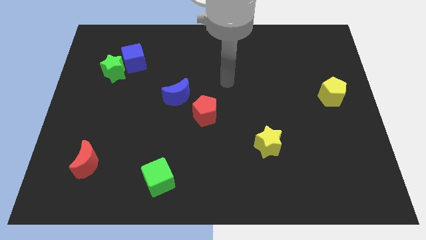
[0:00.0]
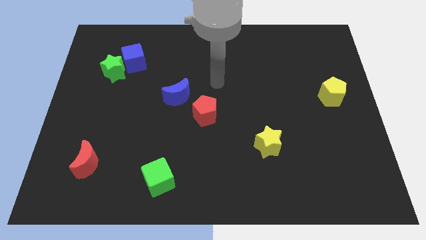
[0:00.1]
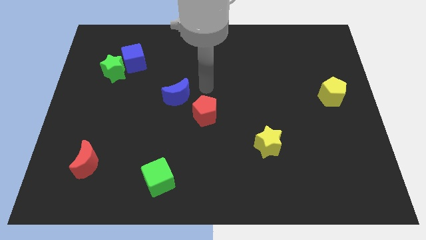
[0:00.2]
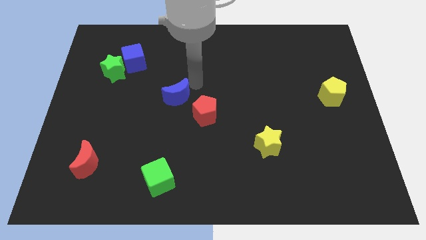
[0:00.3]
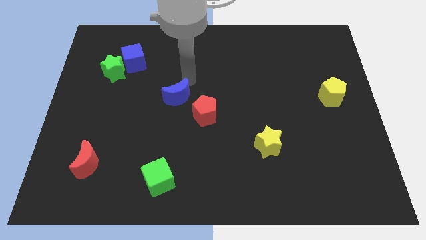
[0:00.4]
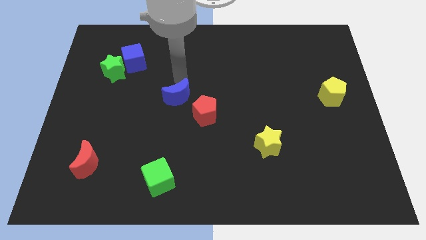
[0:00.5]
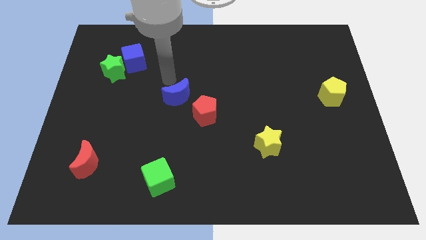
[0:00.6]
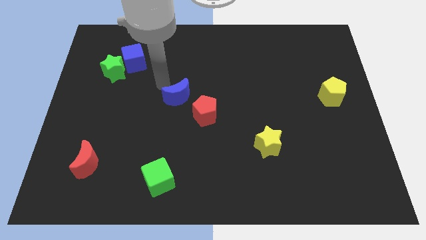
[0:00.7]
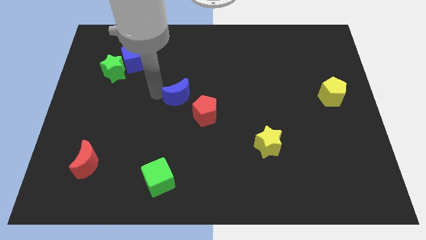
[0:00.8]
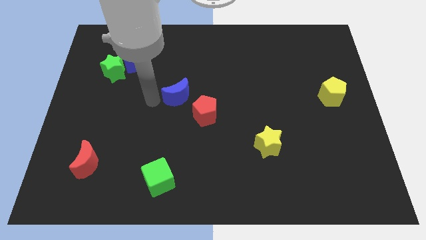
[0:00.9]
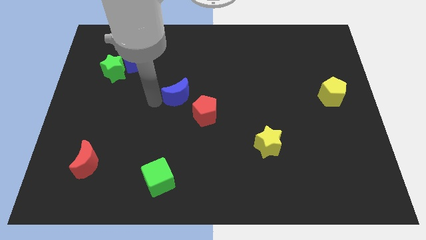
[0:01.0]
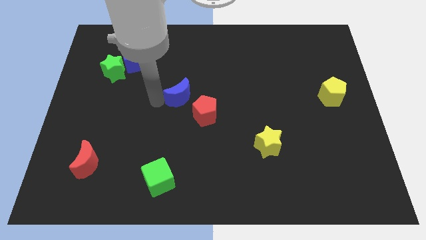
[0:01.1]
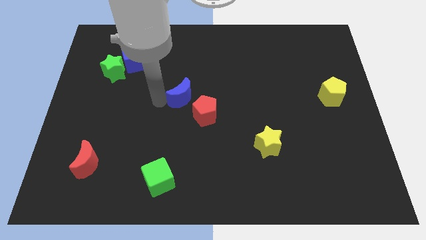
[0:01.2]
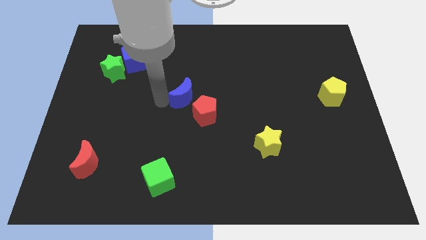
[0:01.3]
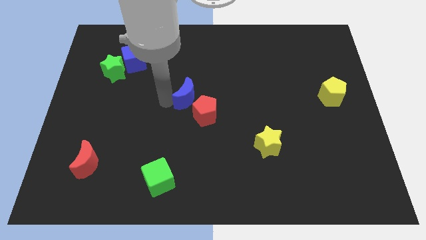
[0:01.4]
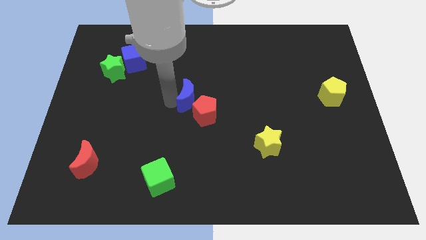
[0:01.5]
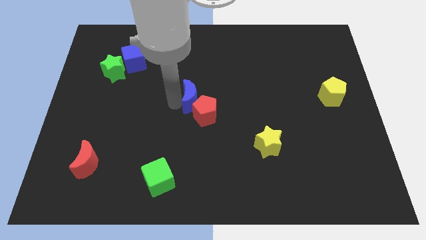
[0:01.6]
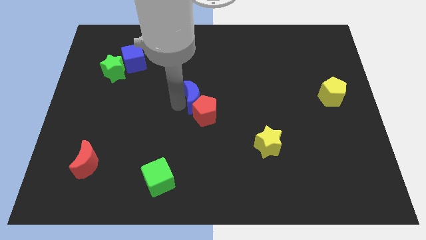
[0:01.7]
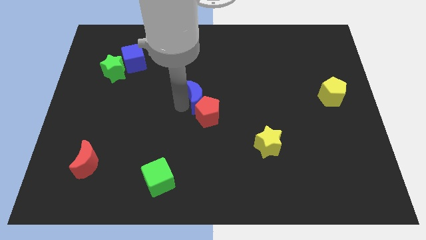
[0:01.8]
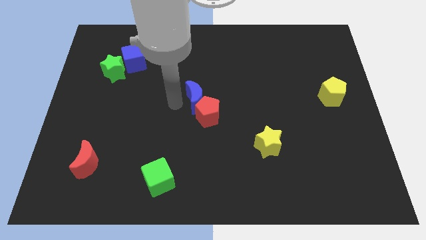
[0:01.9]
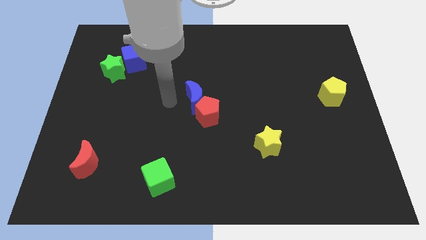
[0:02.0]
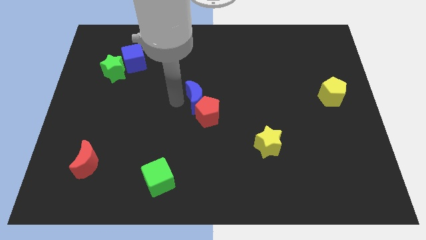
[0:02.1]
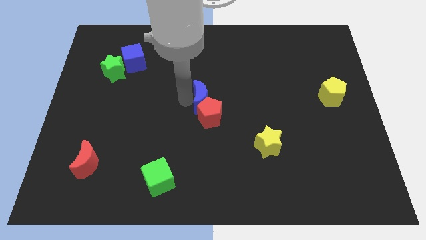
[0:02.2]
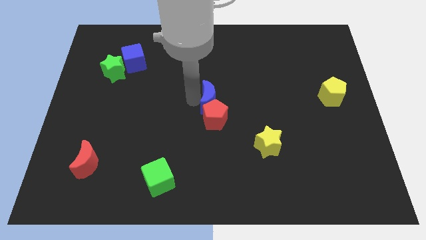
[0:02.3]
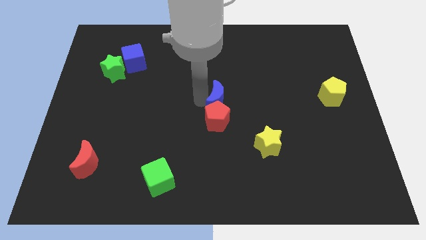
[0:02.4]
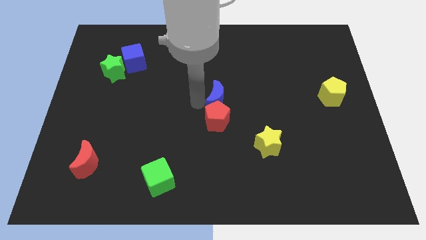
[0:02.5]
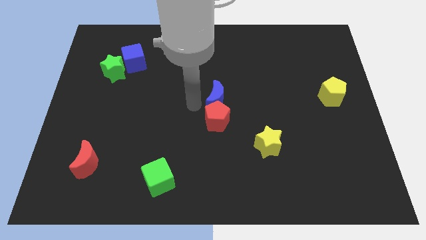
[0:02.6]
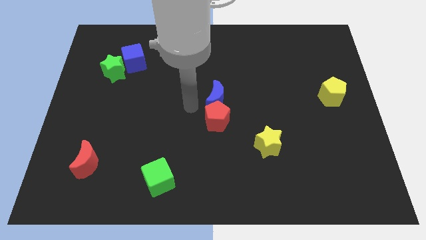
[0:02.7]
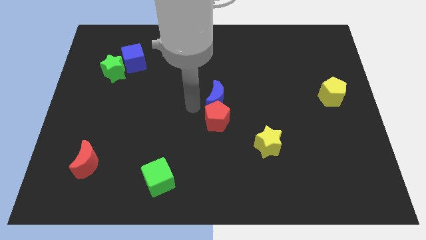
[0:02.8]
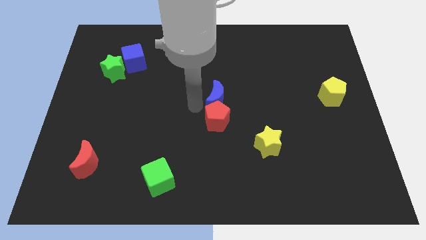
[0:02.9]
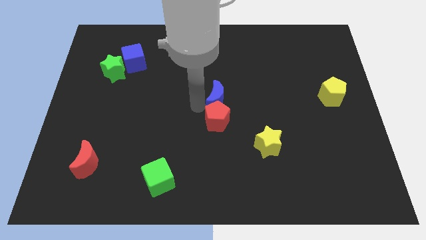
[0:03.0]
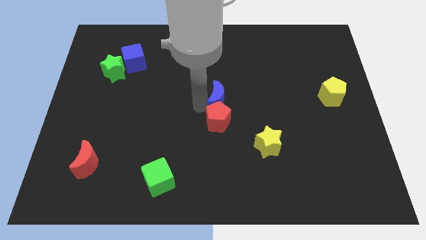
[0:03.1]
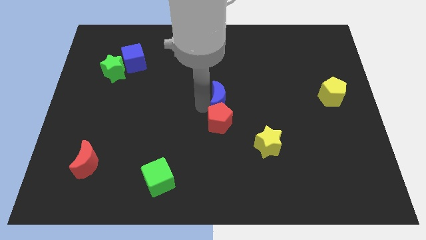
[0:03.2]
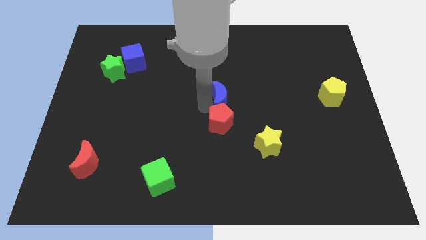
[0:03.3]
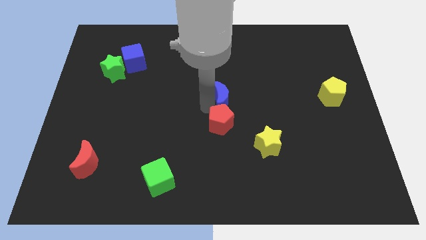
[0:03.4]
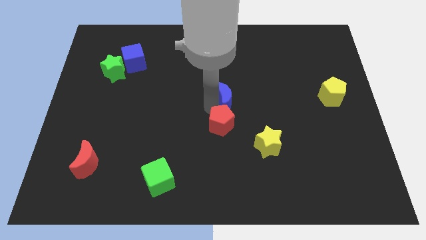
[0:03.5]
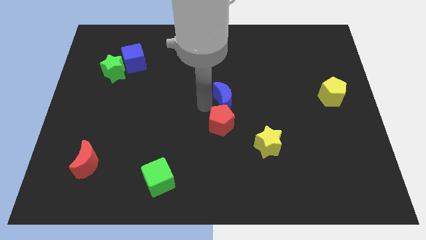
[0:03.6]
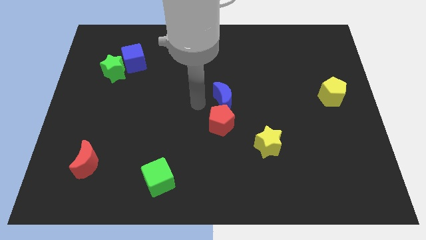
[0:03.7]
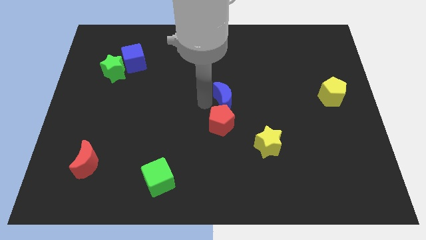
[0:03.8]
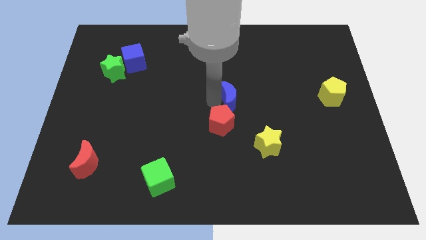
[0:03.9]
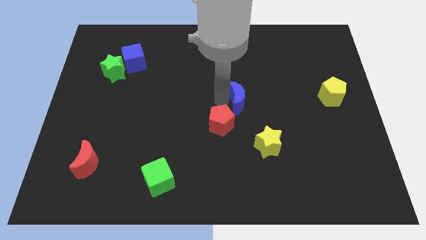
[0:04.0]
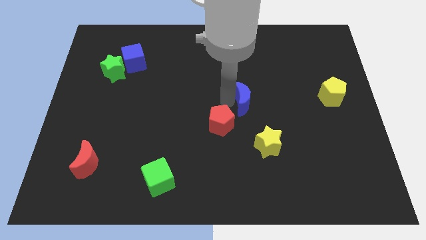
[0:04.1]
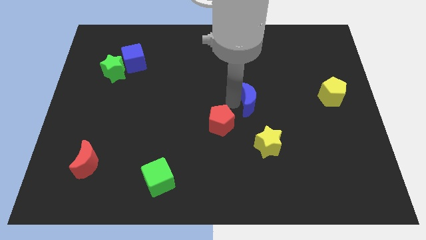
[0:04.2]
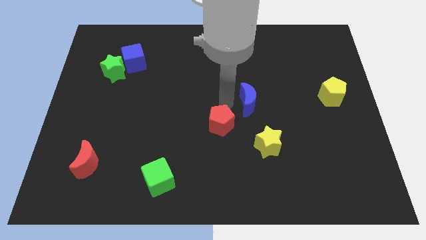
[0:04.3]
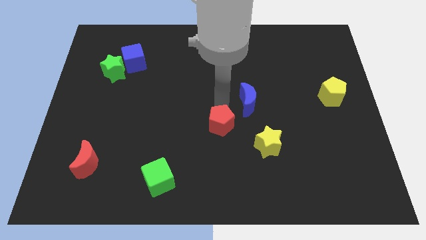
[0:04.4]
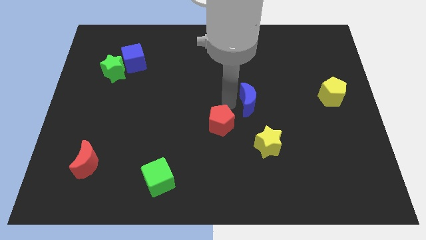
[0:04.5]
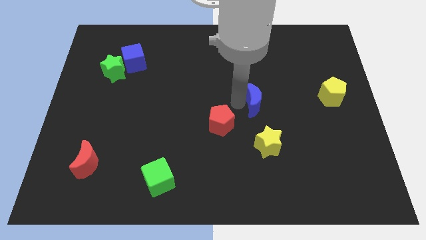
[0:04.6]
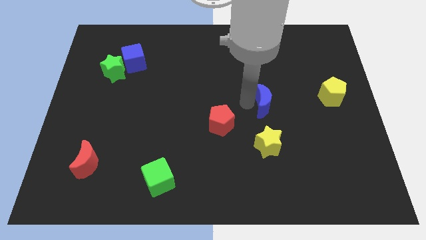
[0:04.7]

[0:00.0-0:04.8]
push the blue moon to the right

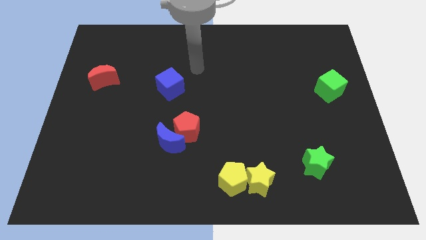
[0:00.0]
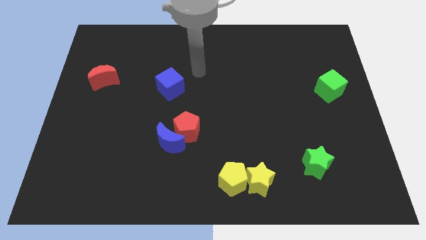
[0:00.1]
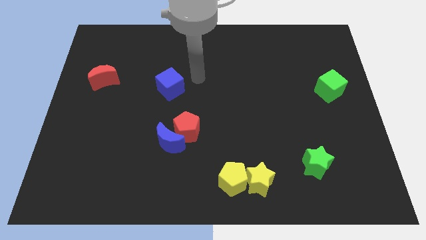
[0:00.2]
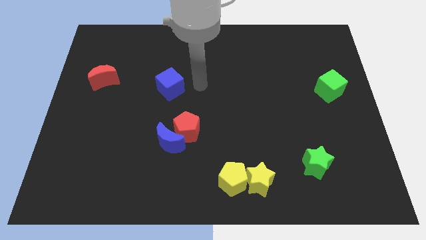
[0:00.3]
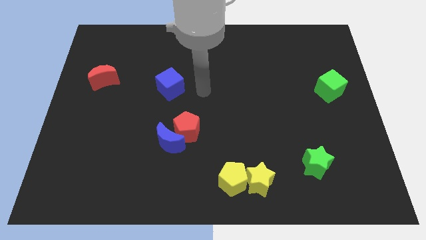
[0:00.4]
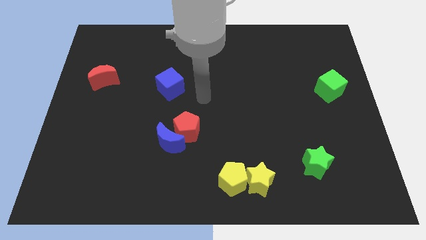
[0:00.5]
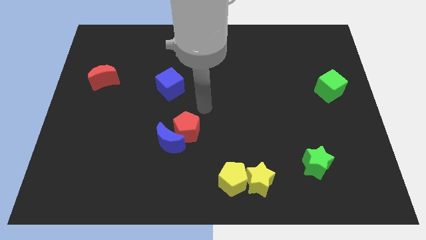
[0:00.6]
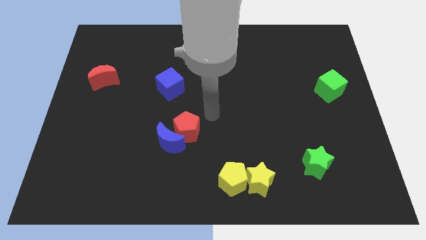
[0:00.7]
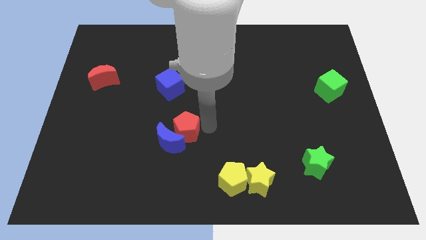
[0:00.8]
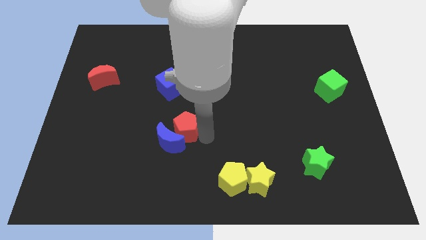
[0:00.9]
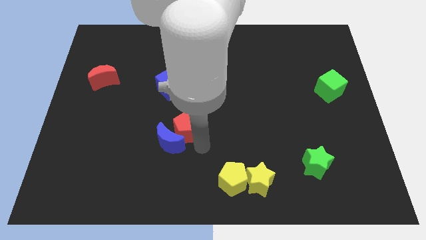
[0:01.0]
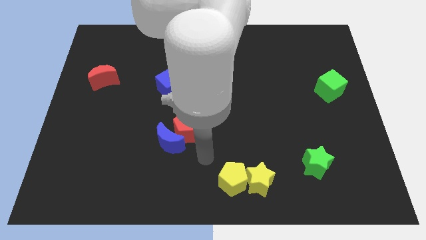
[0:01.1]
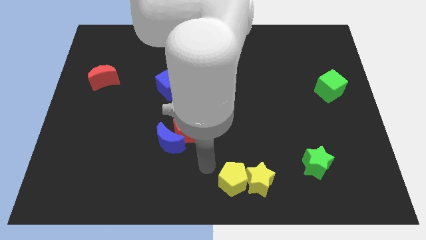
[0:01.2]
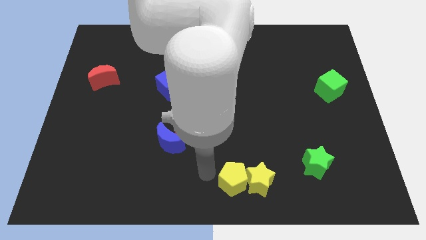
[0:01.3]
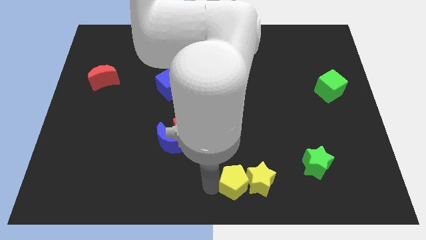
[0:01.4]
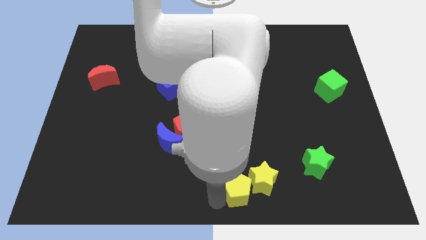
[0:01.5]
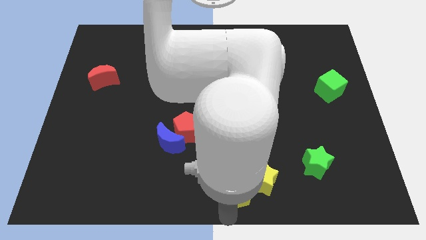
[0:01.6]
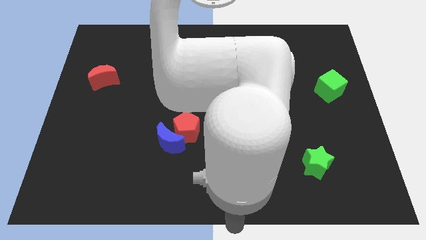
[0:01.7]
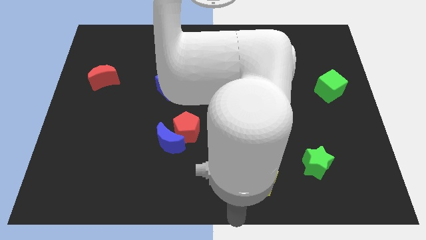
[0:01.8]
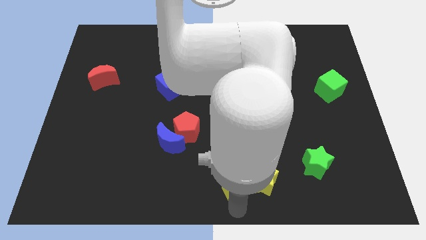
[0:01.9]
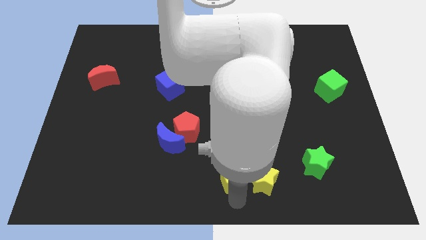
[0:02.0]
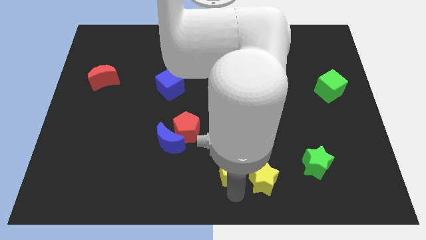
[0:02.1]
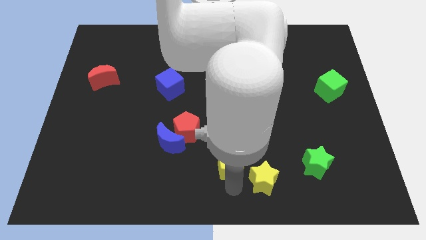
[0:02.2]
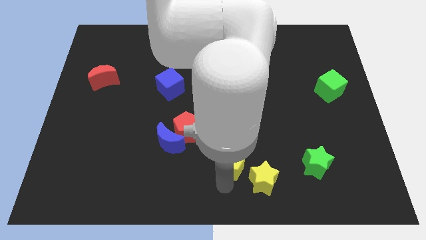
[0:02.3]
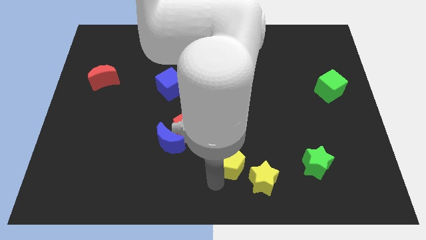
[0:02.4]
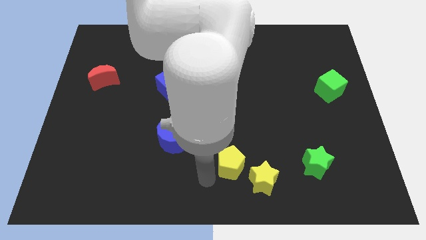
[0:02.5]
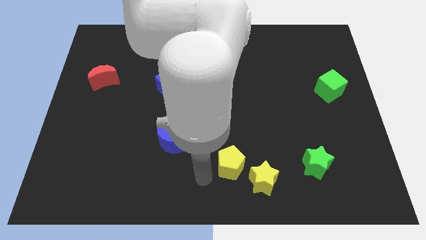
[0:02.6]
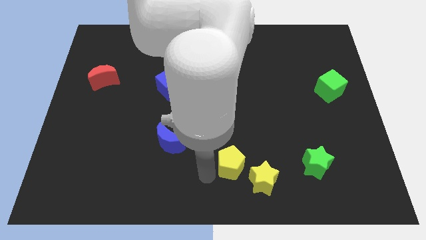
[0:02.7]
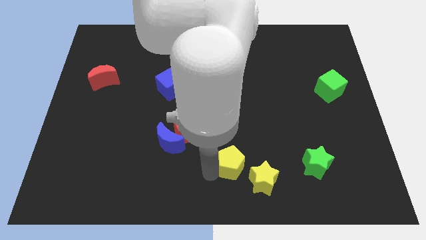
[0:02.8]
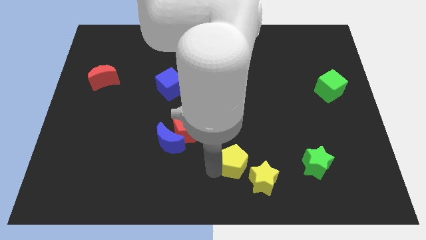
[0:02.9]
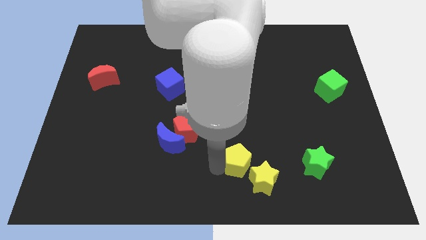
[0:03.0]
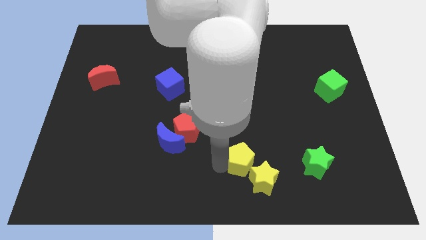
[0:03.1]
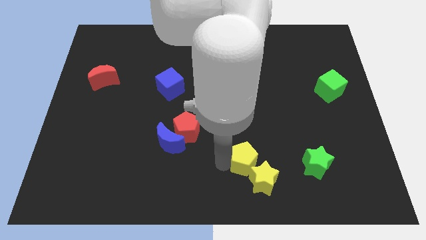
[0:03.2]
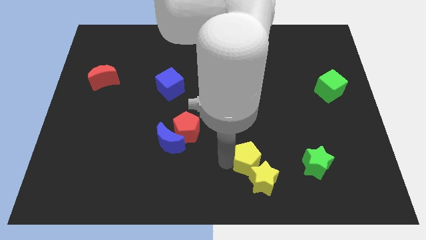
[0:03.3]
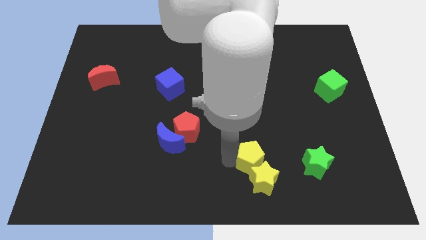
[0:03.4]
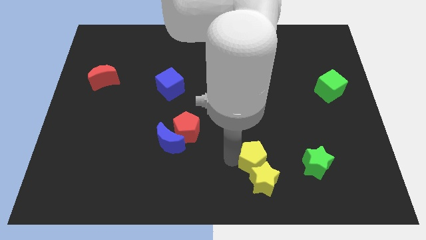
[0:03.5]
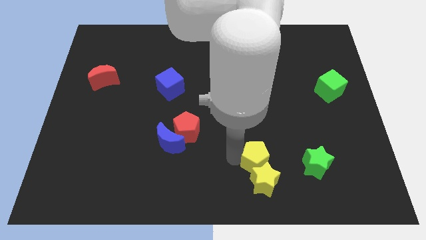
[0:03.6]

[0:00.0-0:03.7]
push the yellow pentagon slightly upwards and then right
